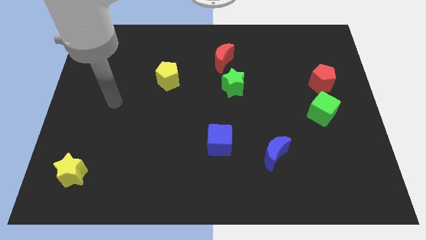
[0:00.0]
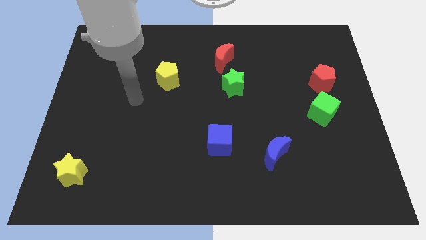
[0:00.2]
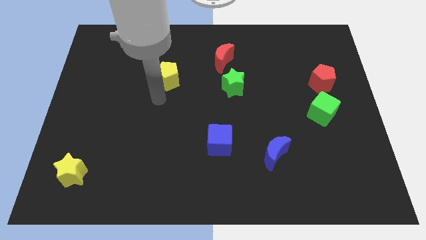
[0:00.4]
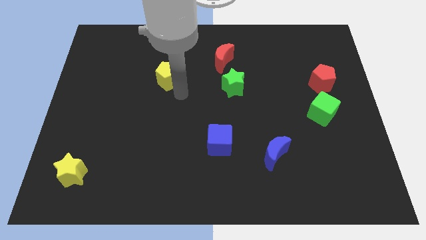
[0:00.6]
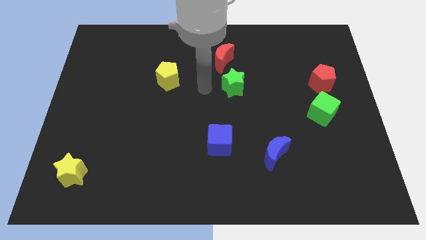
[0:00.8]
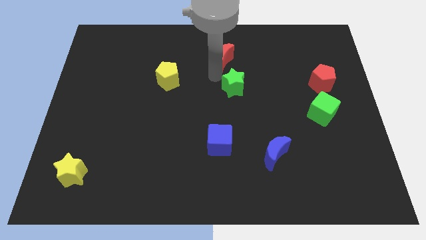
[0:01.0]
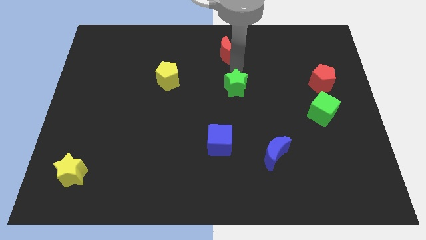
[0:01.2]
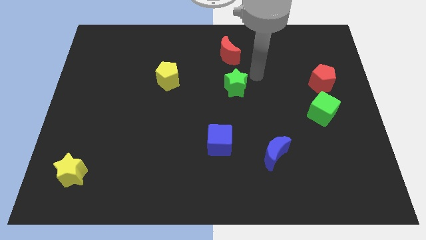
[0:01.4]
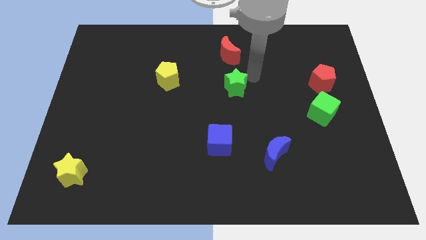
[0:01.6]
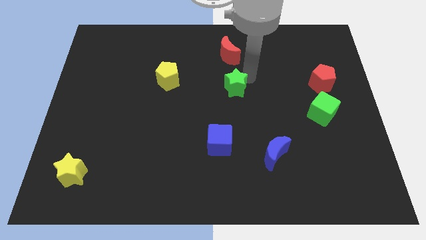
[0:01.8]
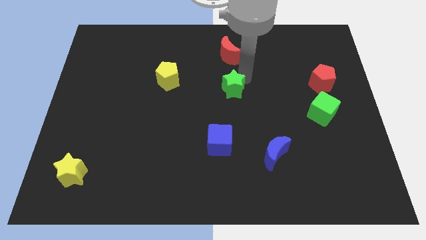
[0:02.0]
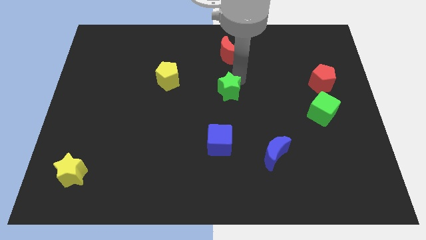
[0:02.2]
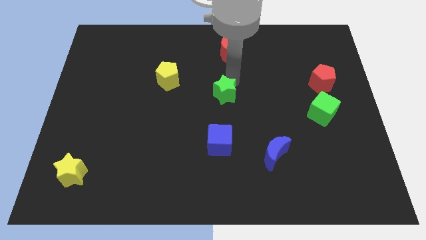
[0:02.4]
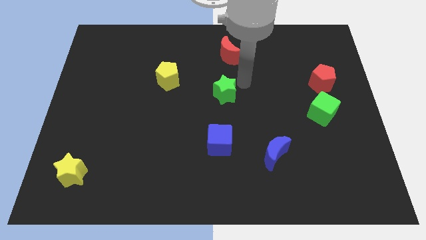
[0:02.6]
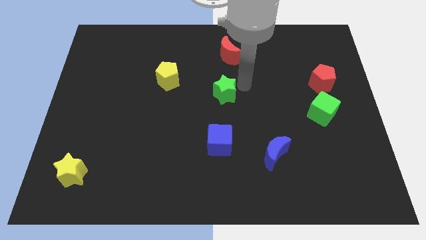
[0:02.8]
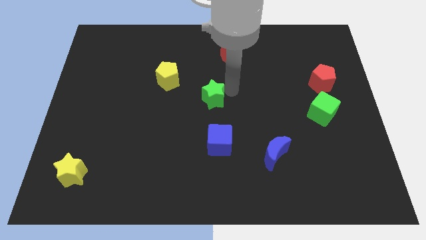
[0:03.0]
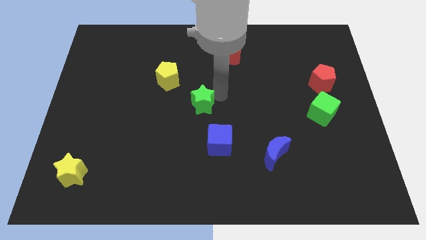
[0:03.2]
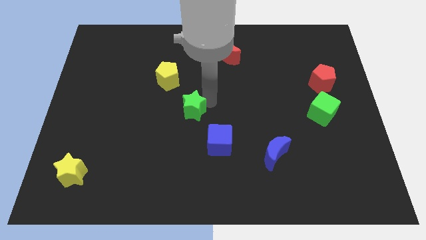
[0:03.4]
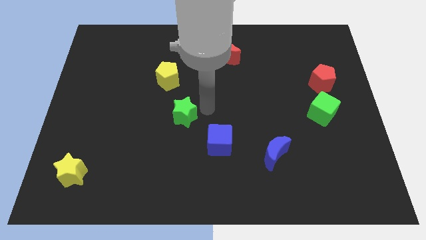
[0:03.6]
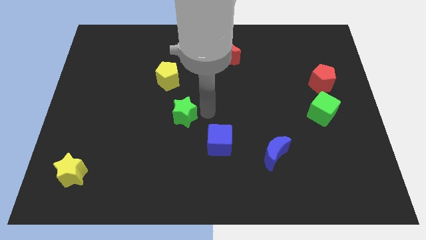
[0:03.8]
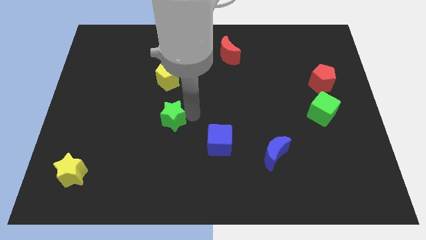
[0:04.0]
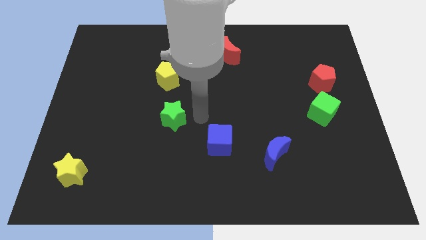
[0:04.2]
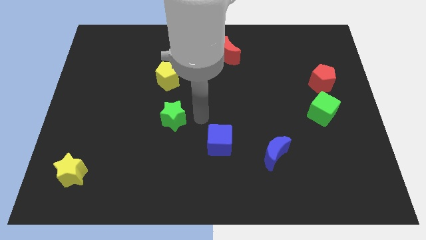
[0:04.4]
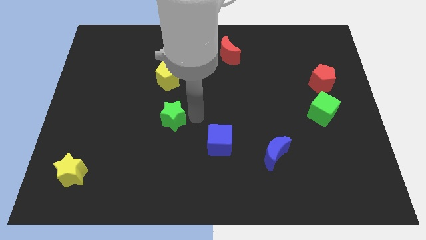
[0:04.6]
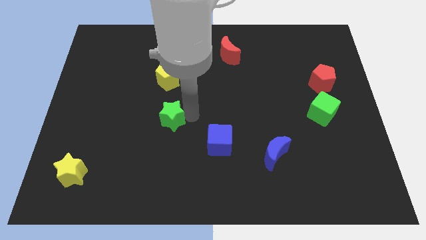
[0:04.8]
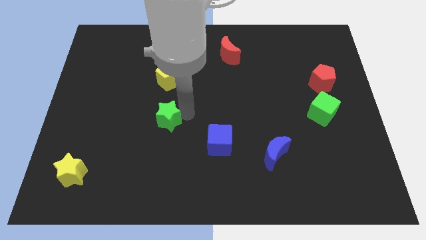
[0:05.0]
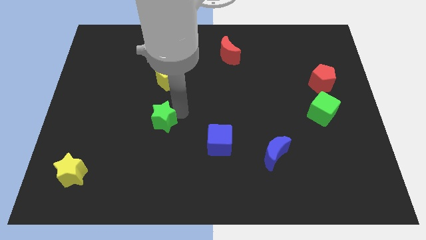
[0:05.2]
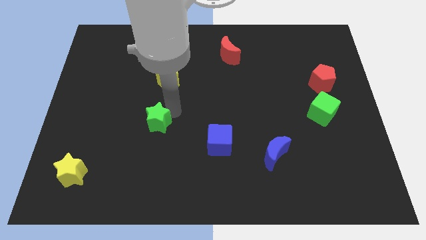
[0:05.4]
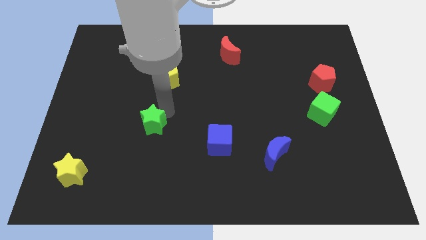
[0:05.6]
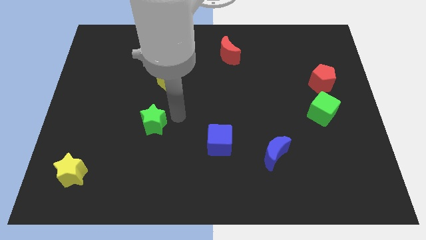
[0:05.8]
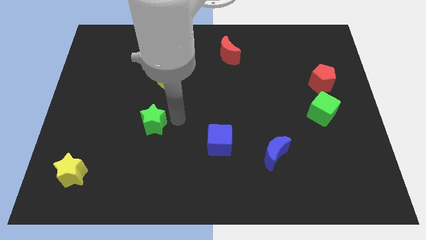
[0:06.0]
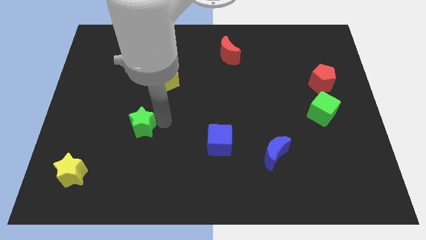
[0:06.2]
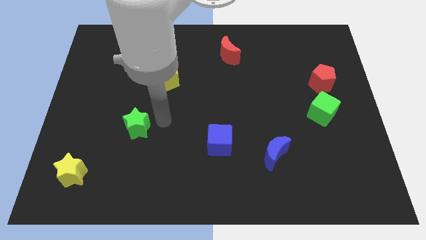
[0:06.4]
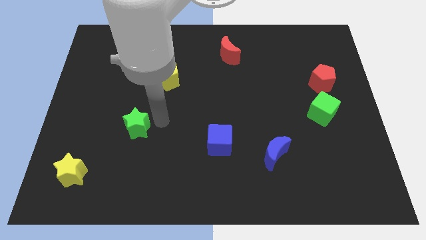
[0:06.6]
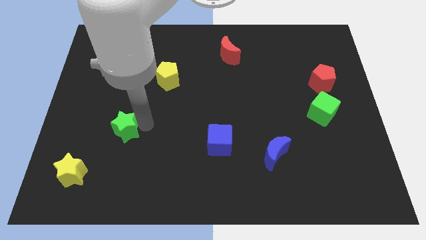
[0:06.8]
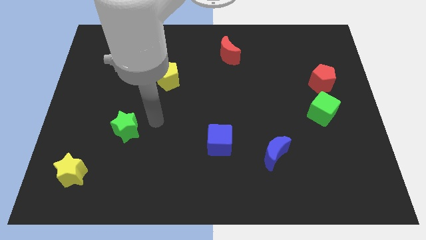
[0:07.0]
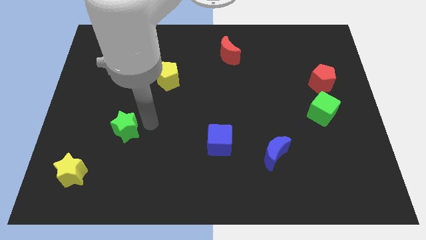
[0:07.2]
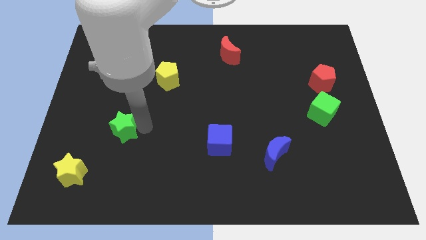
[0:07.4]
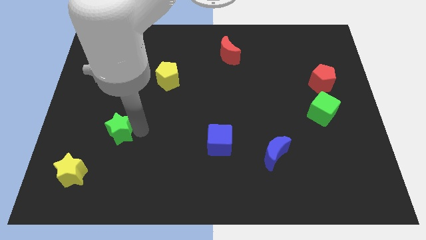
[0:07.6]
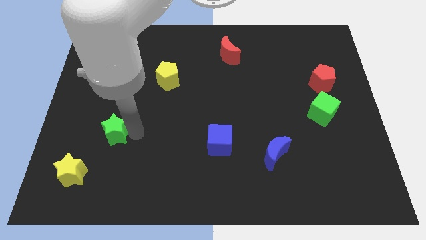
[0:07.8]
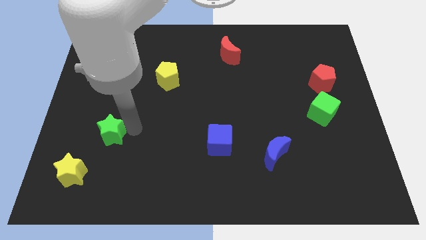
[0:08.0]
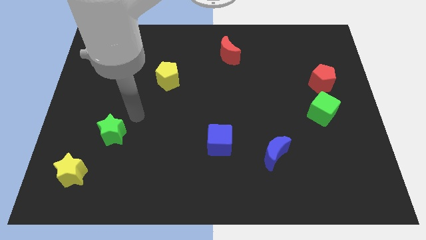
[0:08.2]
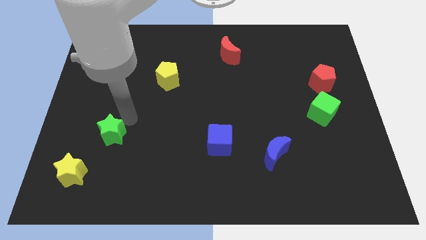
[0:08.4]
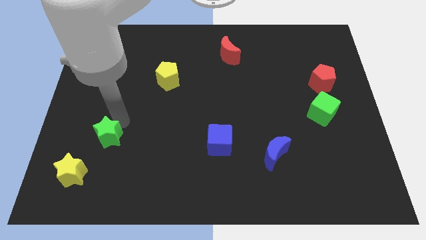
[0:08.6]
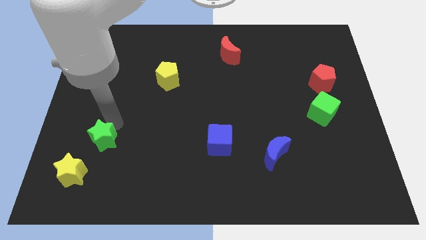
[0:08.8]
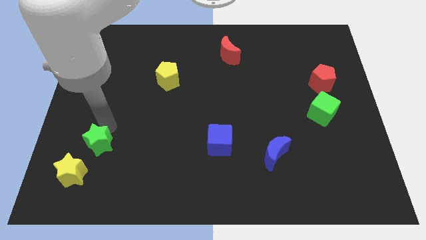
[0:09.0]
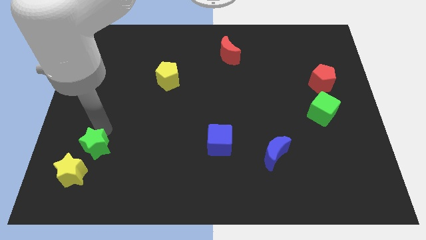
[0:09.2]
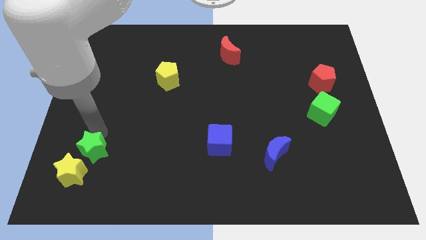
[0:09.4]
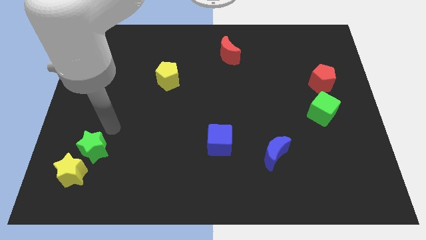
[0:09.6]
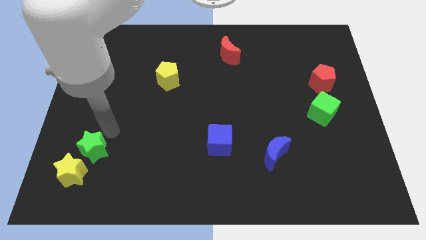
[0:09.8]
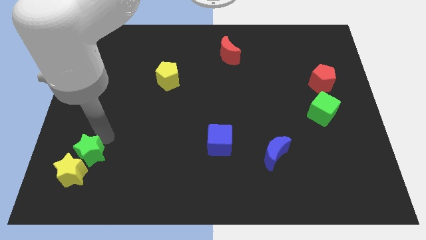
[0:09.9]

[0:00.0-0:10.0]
push the green star close to the yellow star

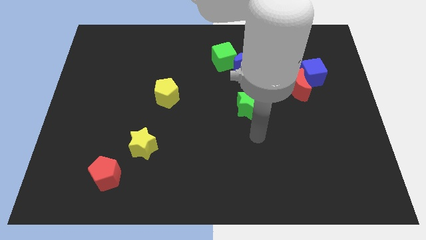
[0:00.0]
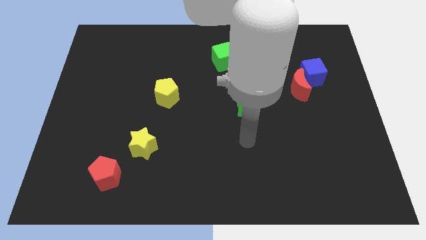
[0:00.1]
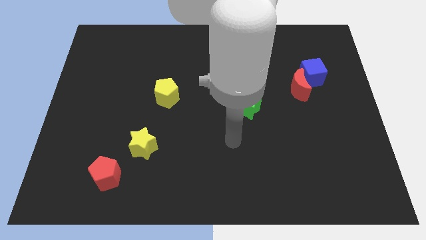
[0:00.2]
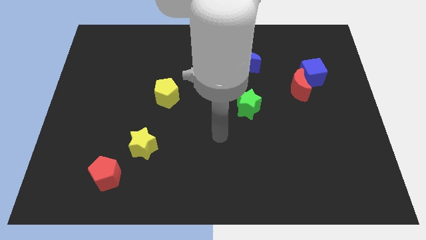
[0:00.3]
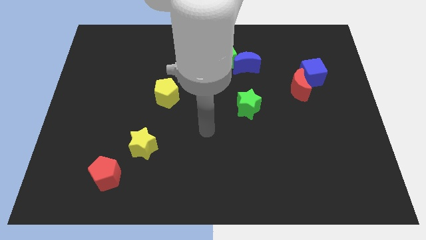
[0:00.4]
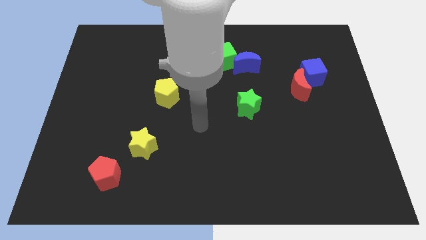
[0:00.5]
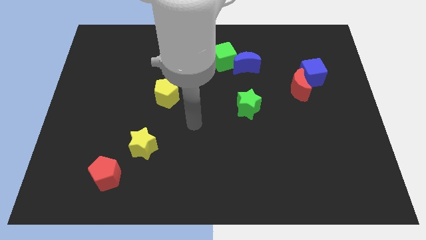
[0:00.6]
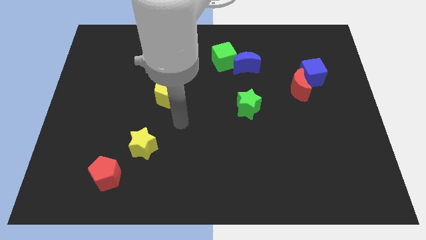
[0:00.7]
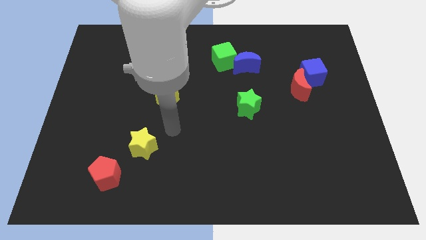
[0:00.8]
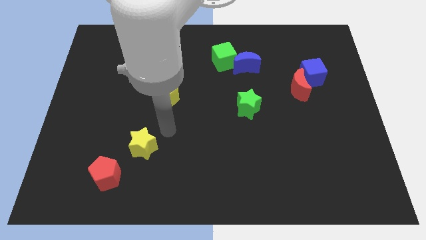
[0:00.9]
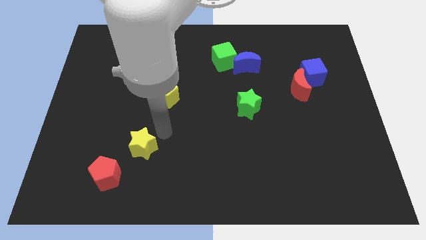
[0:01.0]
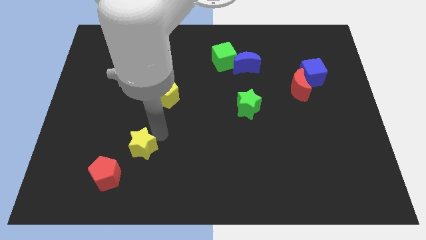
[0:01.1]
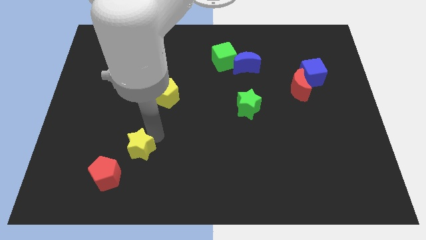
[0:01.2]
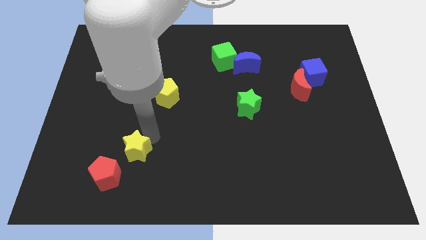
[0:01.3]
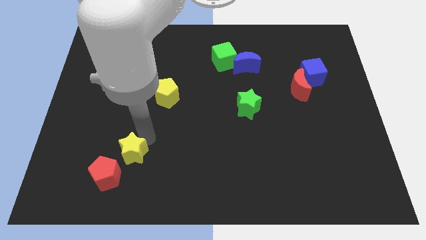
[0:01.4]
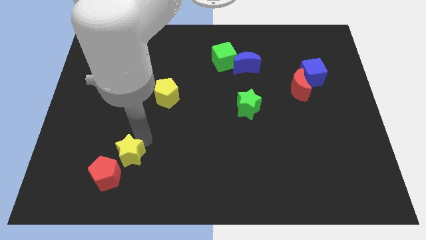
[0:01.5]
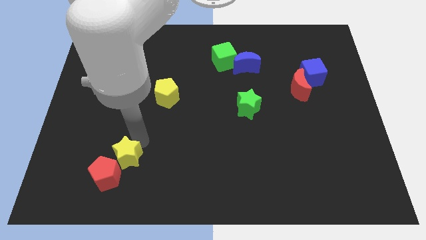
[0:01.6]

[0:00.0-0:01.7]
put the yellow star next to the red pentagon
